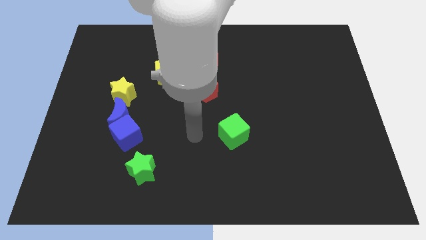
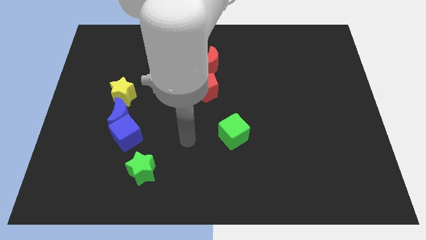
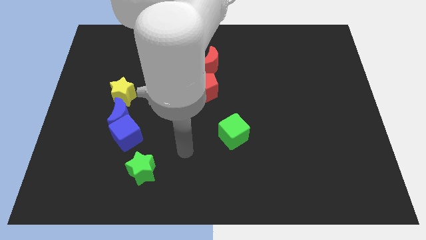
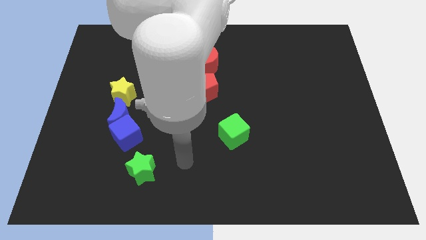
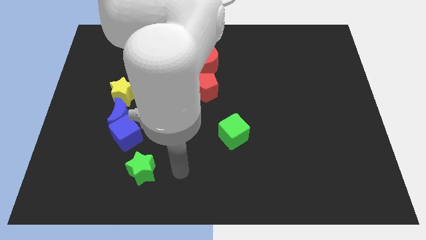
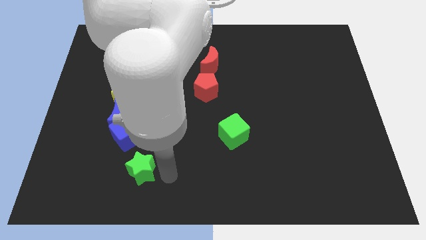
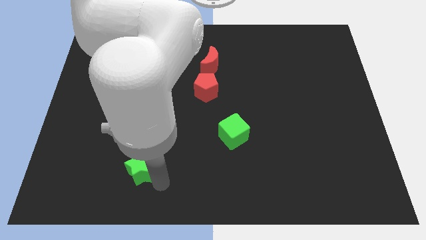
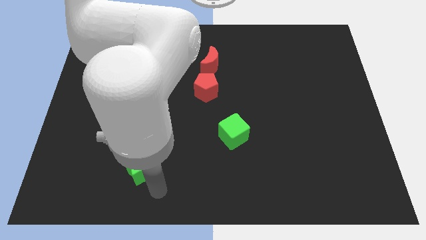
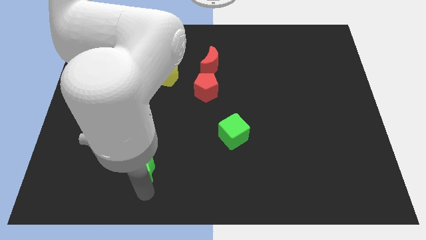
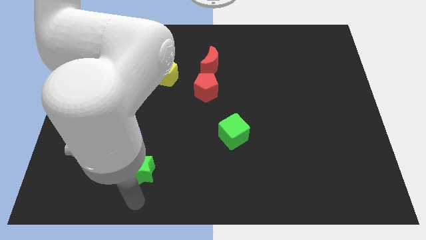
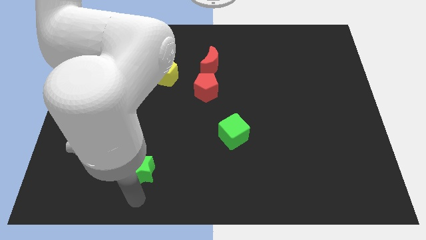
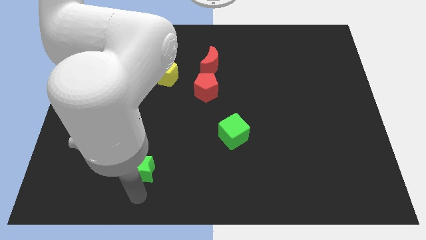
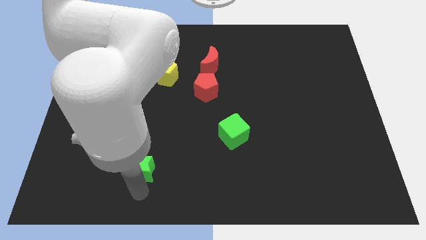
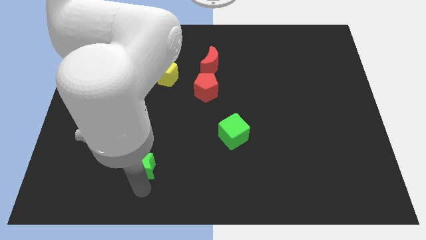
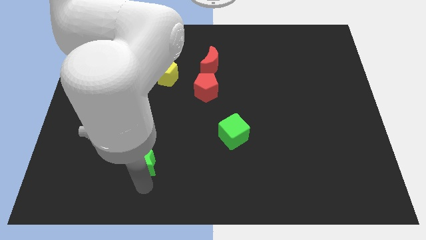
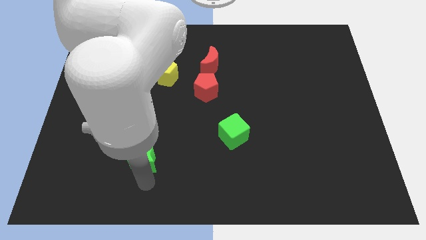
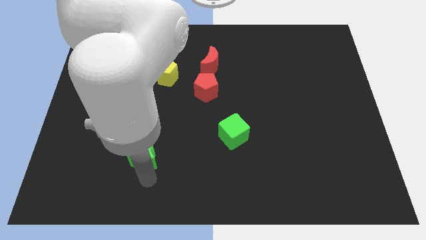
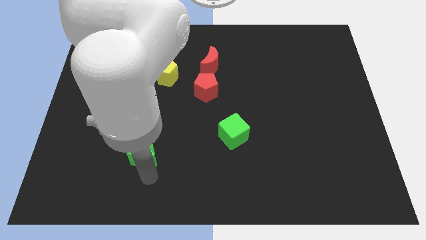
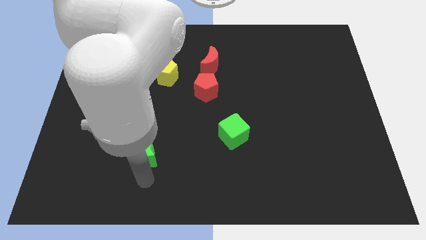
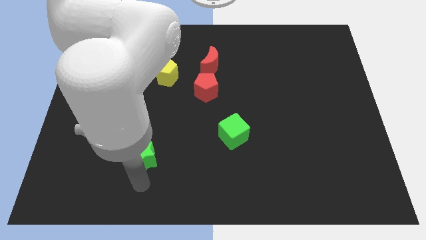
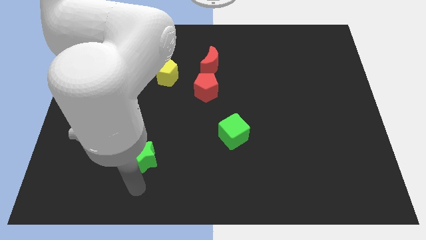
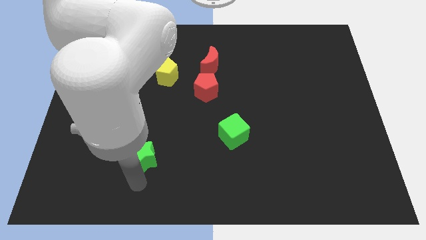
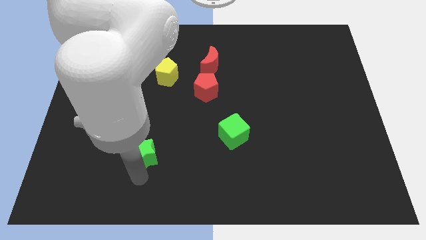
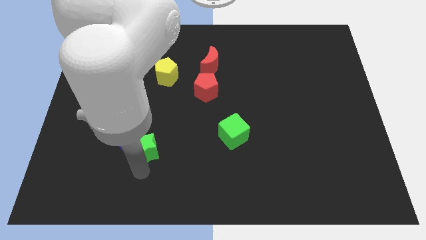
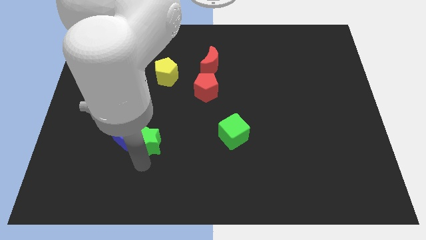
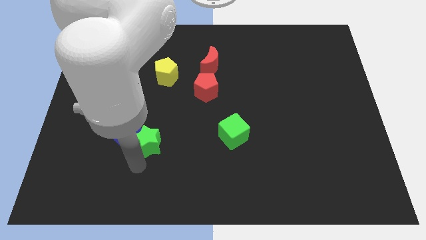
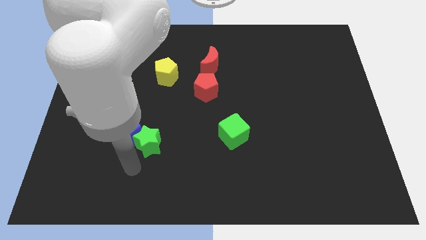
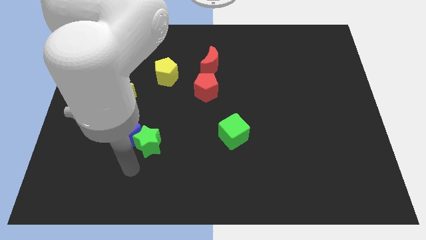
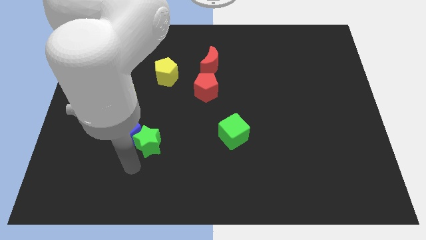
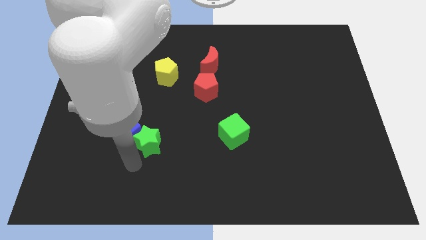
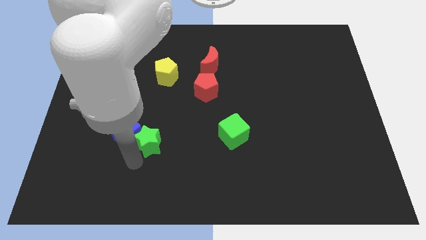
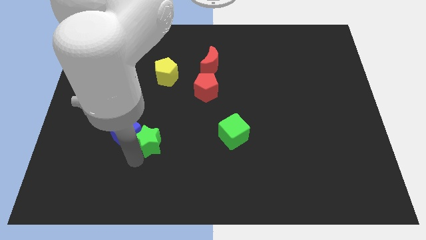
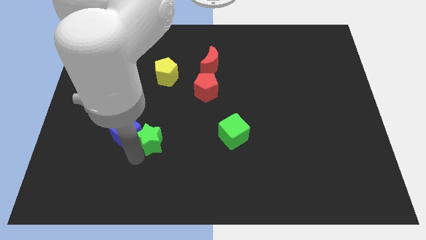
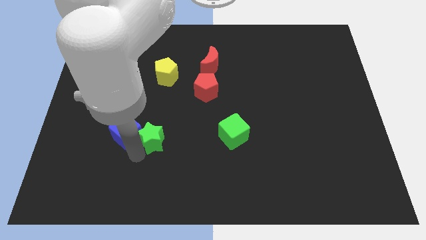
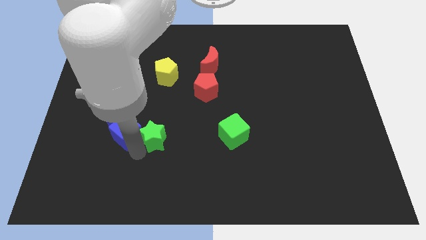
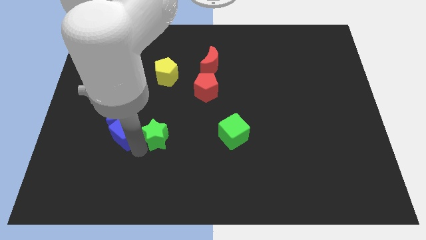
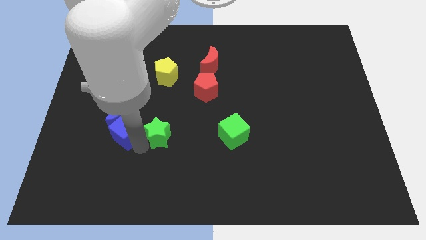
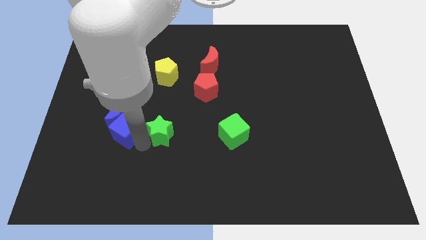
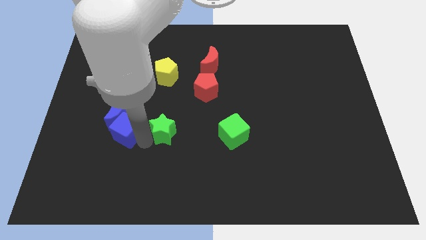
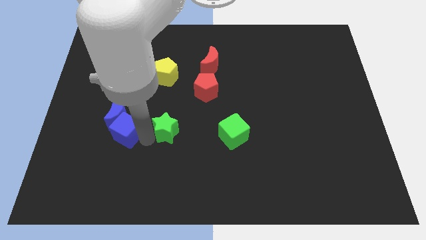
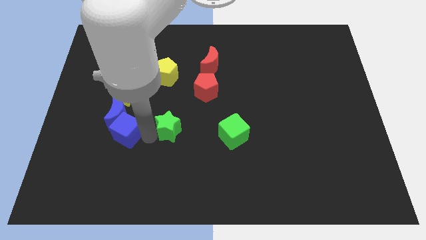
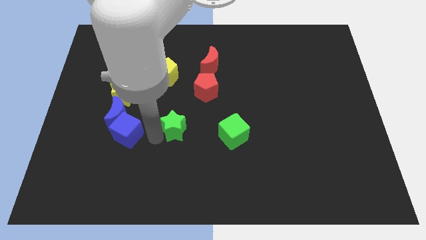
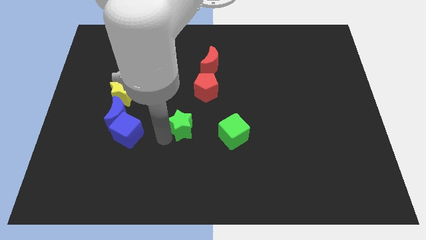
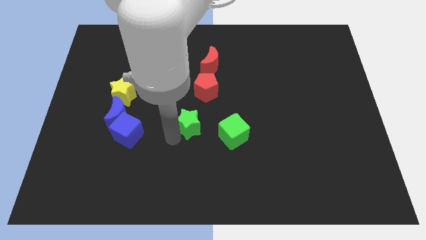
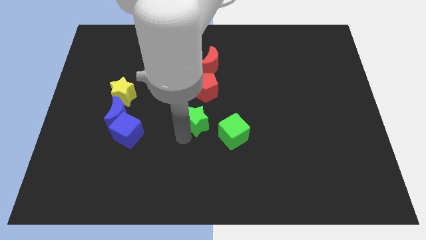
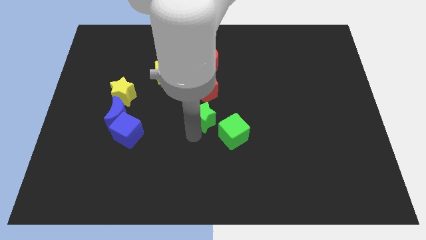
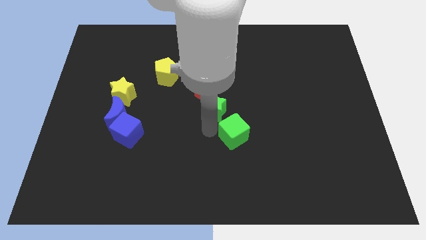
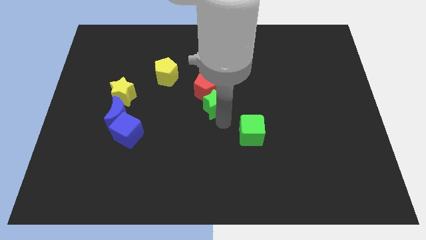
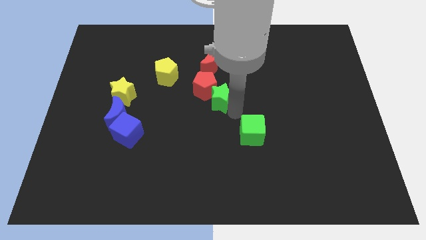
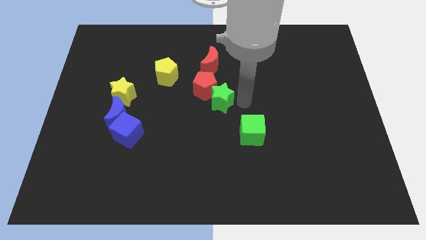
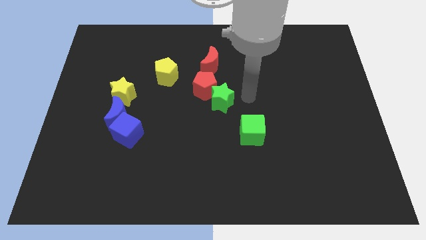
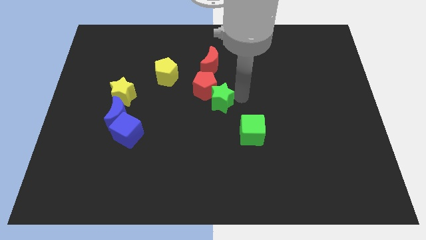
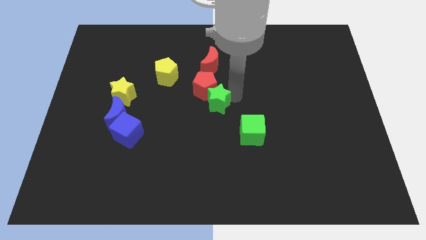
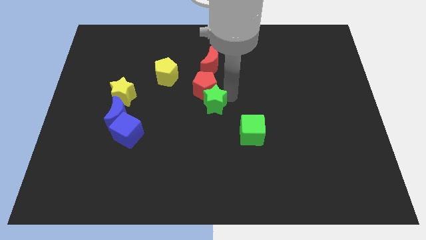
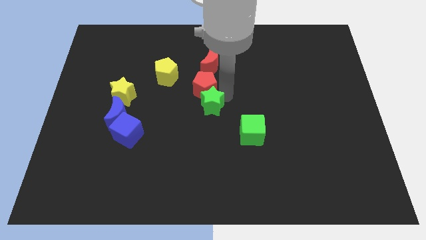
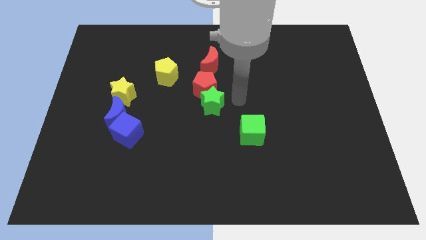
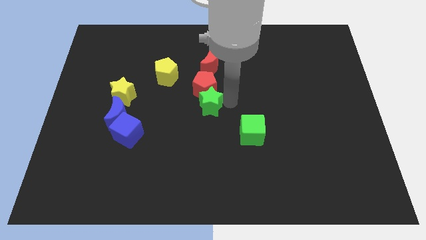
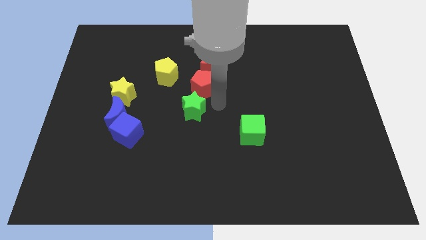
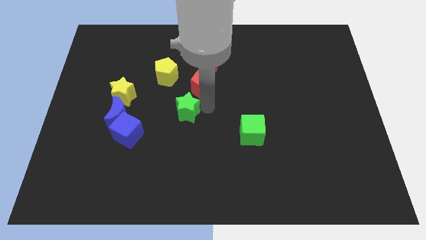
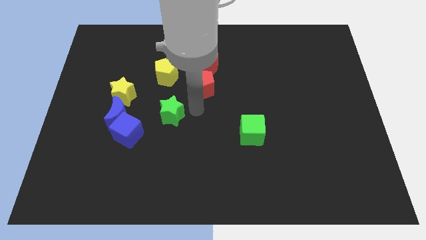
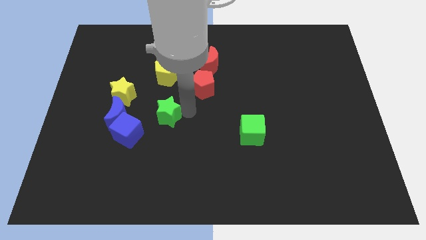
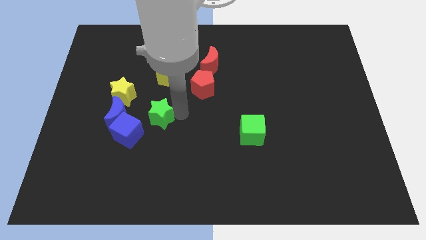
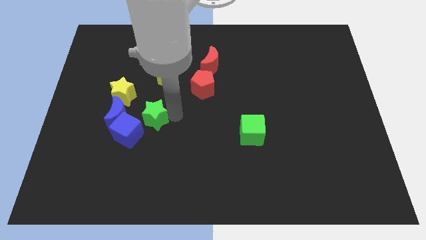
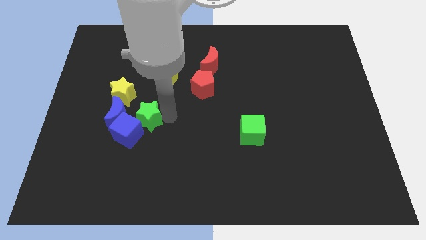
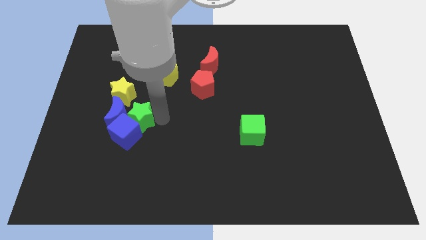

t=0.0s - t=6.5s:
slide the green star close to the blue moon

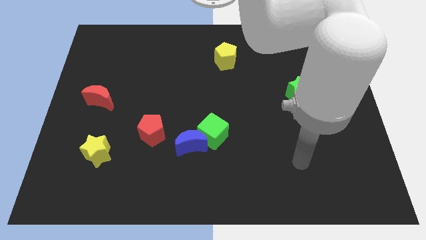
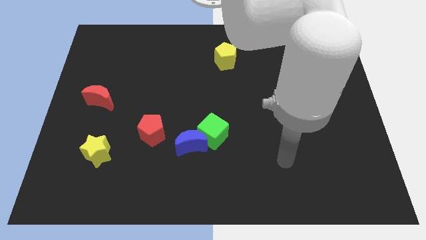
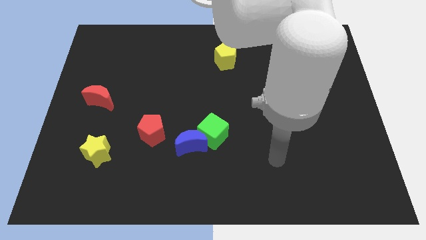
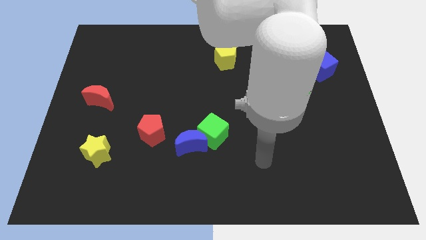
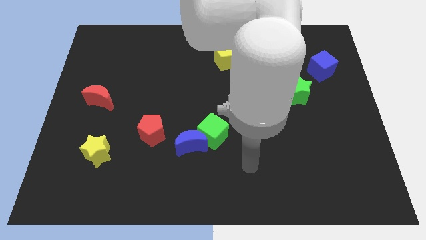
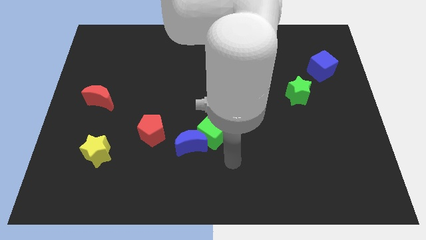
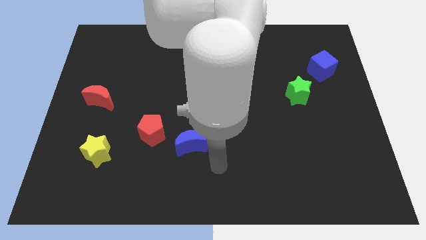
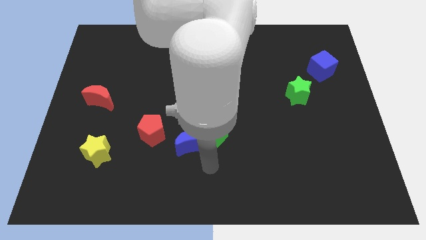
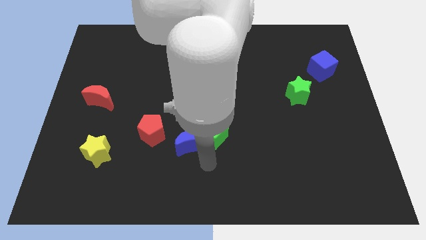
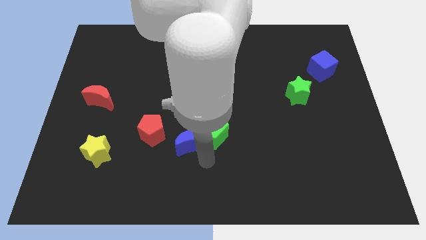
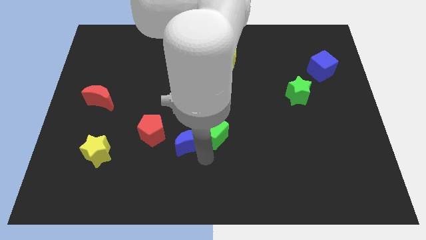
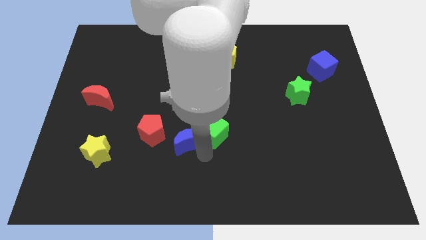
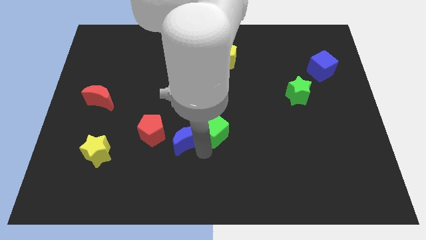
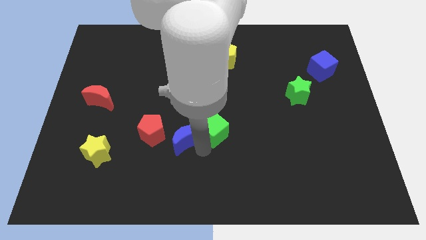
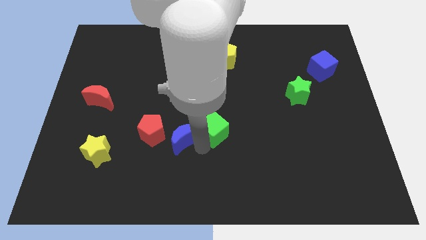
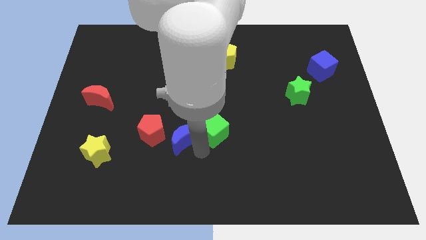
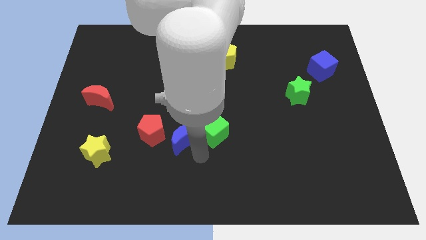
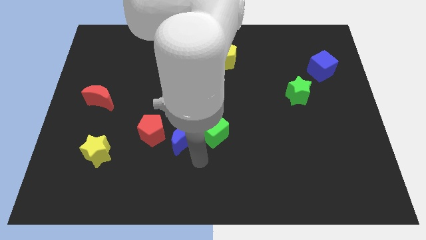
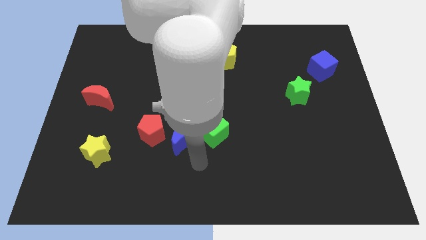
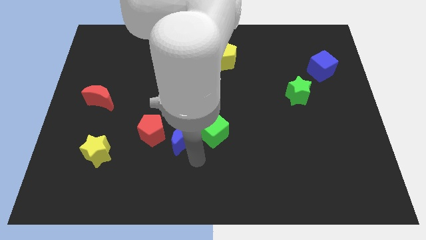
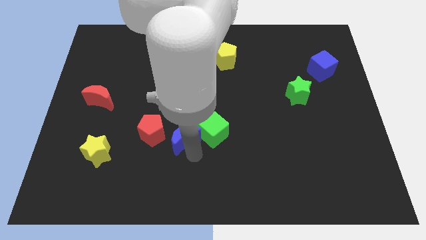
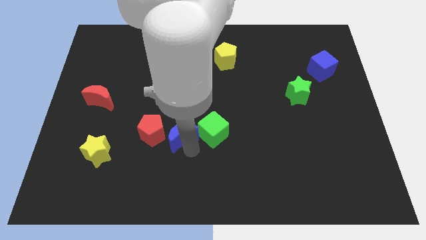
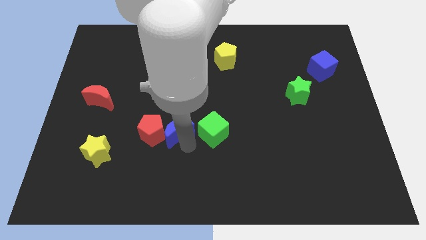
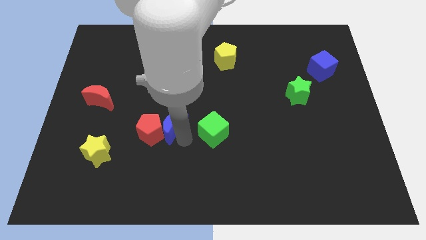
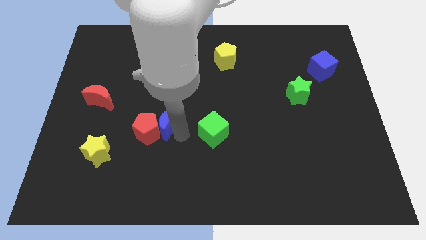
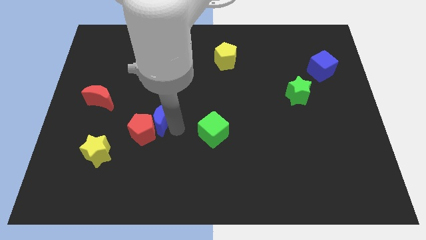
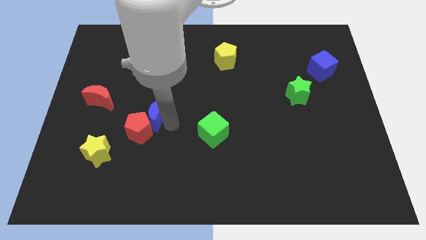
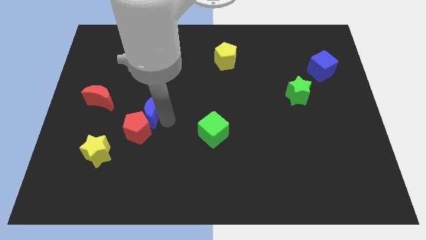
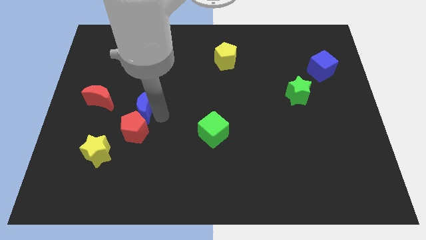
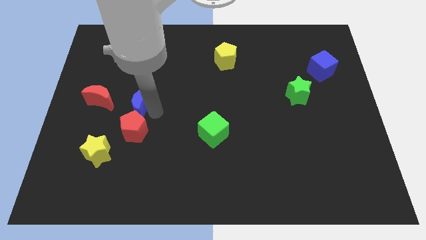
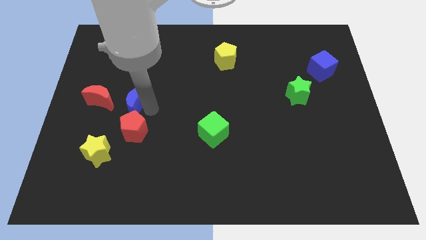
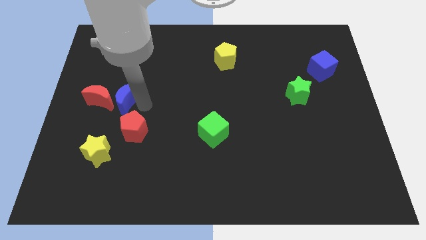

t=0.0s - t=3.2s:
move the blue moon towards the red moon
